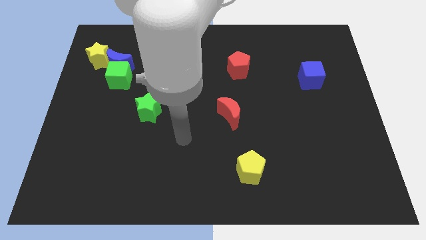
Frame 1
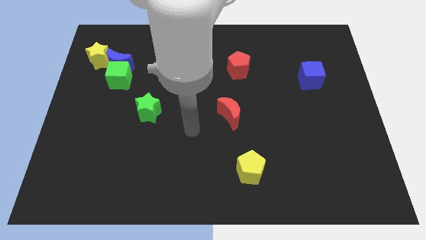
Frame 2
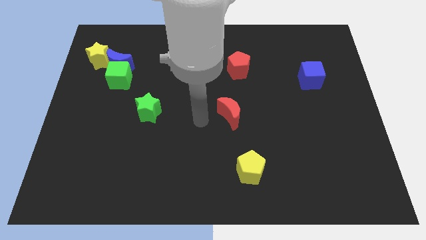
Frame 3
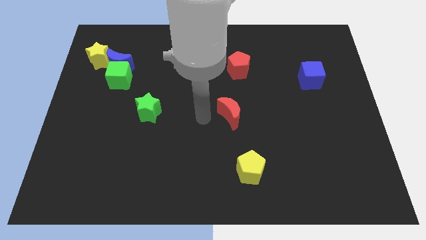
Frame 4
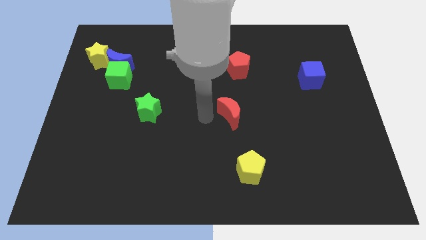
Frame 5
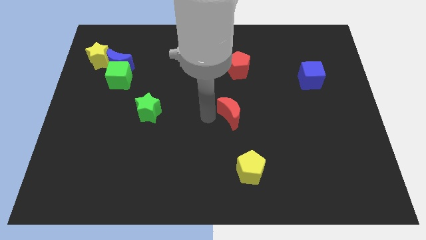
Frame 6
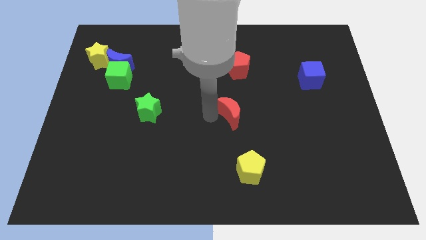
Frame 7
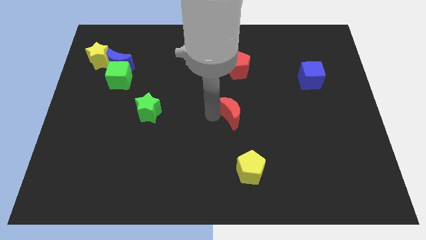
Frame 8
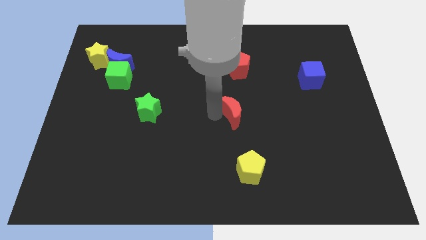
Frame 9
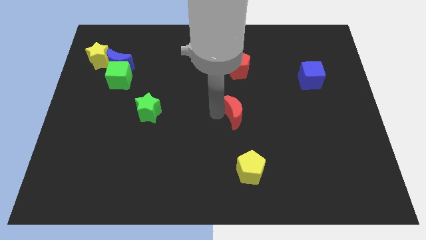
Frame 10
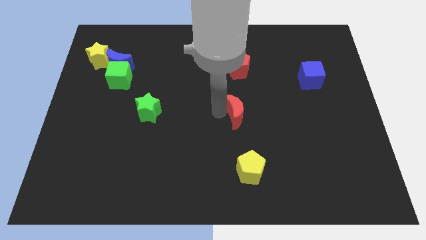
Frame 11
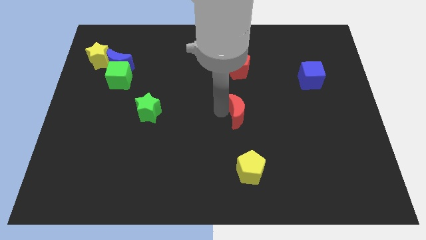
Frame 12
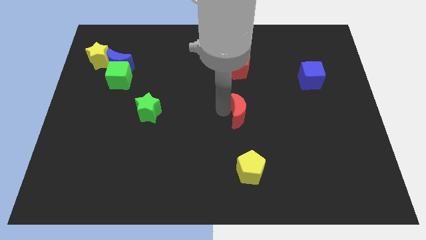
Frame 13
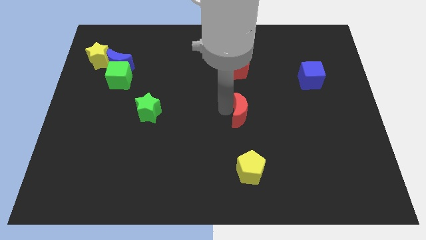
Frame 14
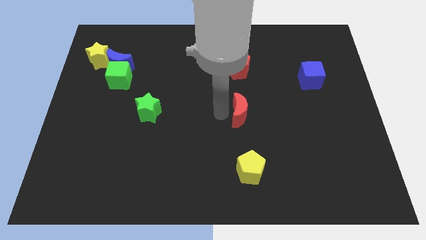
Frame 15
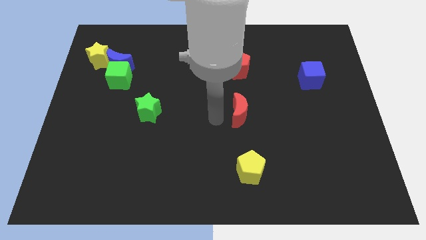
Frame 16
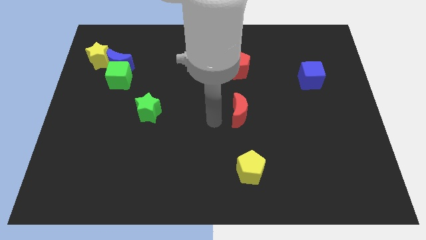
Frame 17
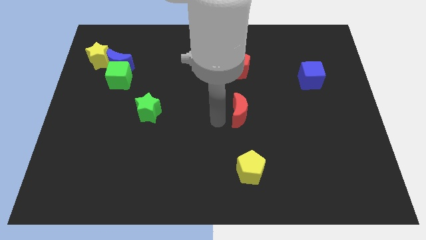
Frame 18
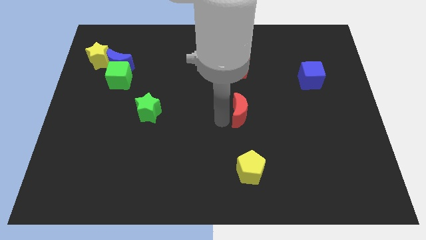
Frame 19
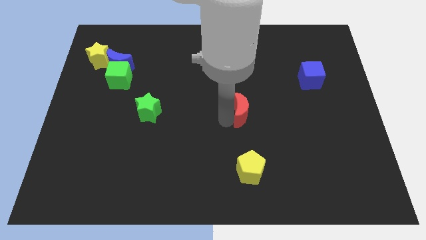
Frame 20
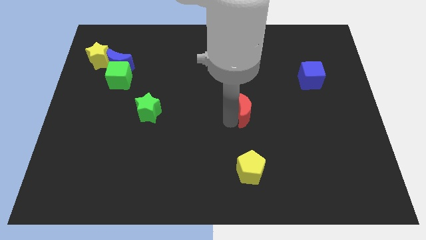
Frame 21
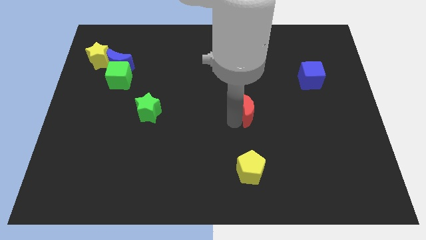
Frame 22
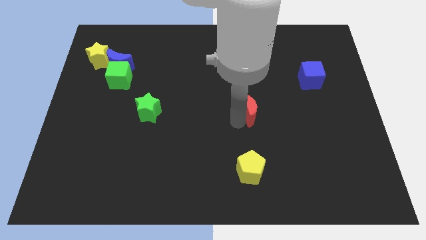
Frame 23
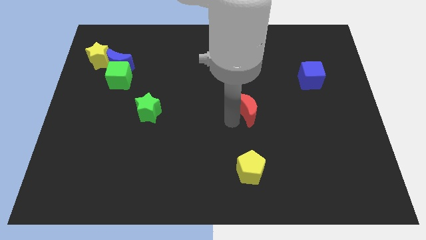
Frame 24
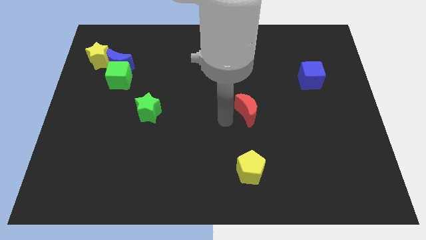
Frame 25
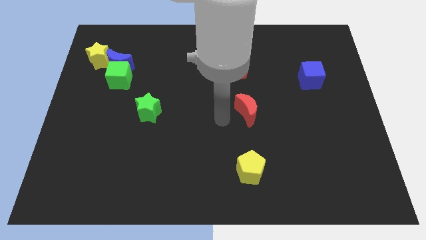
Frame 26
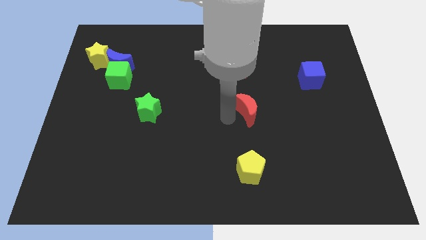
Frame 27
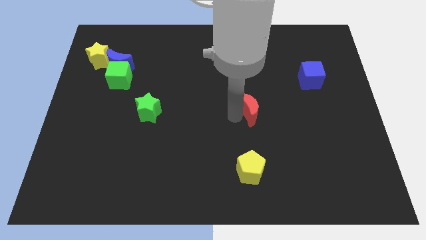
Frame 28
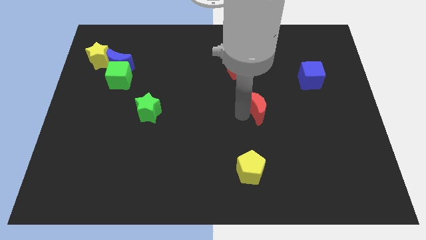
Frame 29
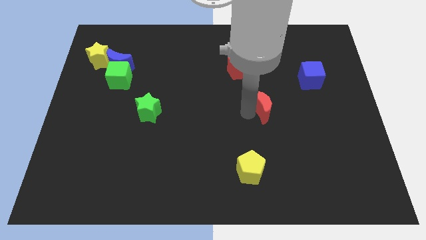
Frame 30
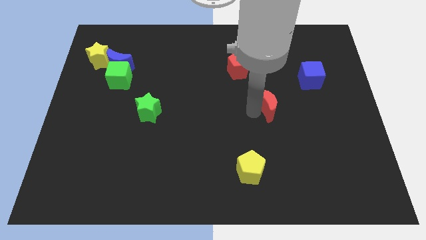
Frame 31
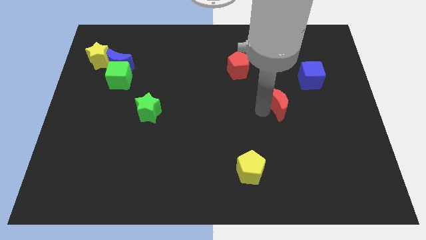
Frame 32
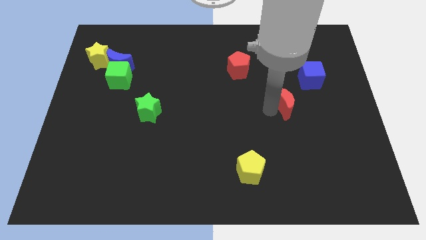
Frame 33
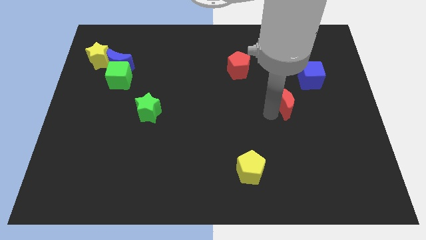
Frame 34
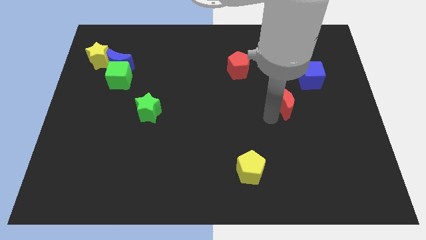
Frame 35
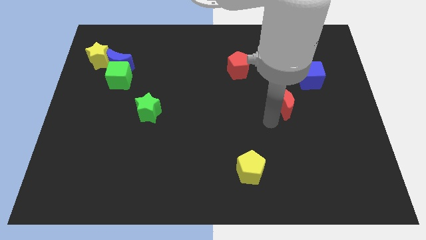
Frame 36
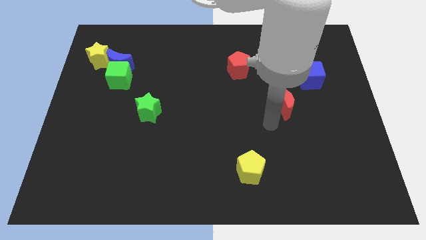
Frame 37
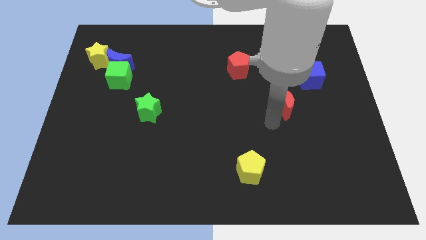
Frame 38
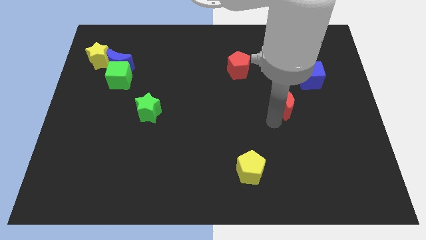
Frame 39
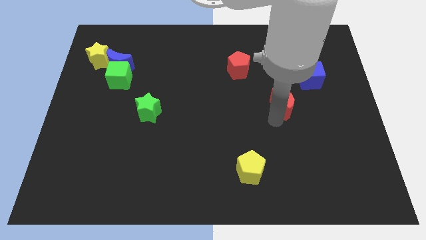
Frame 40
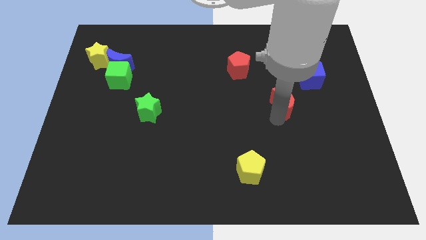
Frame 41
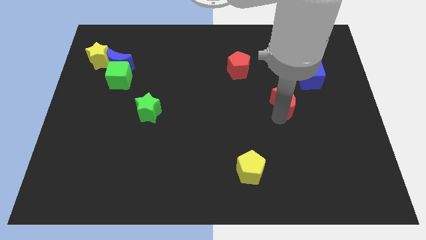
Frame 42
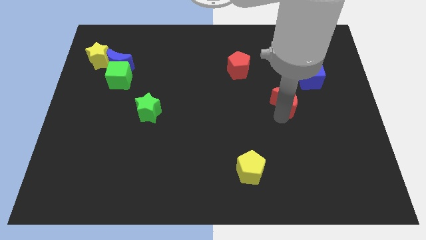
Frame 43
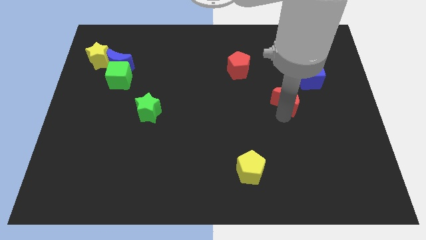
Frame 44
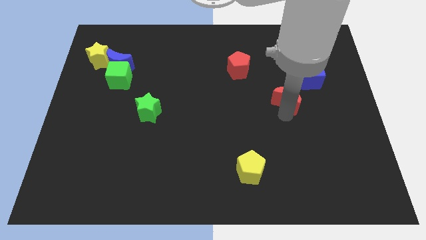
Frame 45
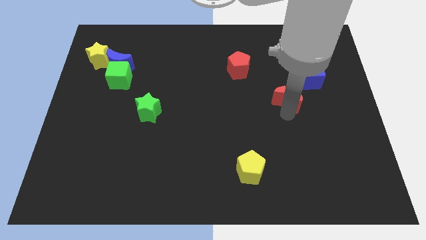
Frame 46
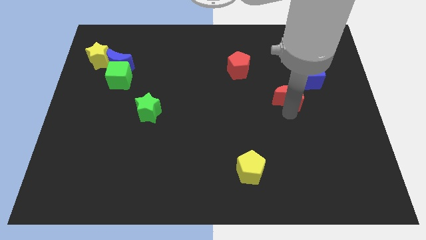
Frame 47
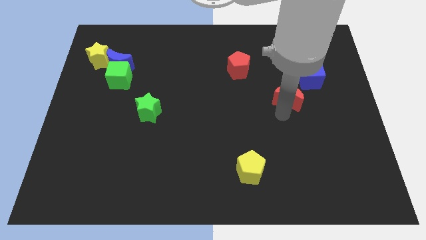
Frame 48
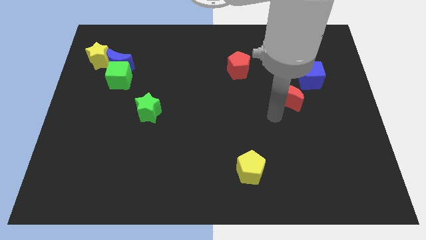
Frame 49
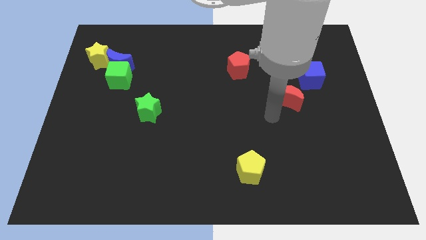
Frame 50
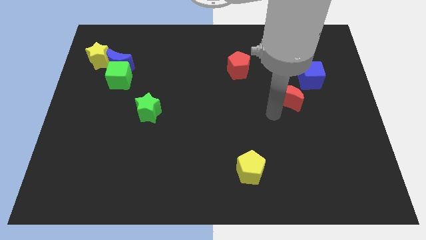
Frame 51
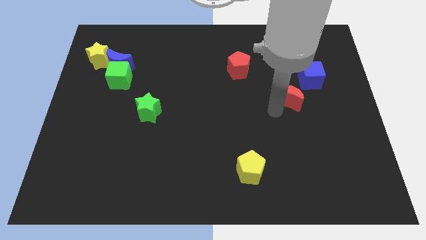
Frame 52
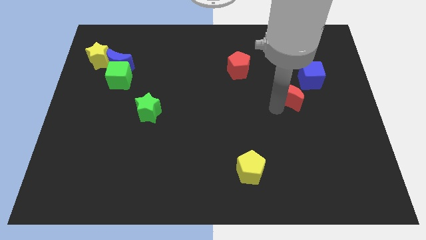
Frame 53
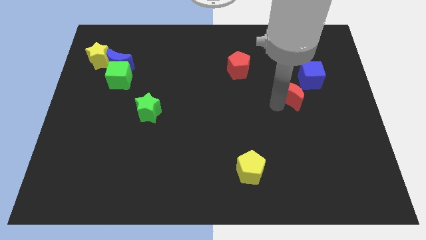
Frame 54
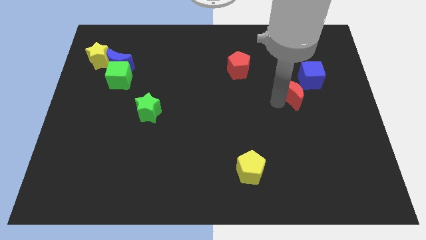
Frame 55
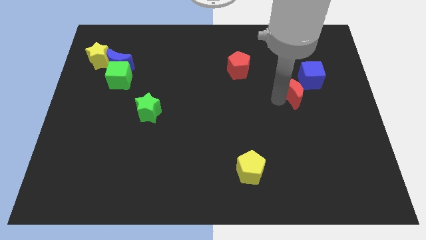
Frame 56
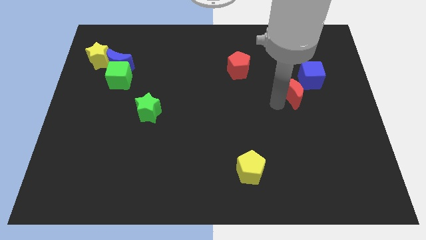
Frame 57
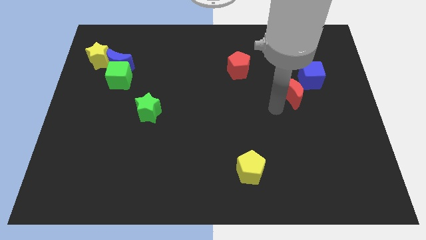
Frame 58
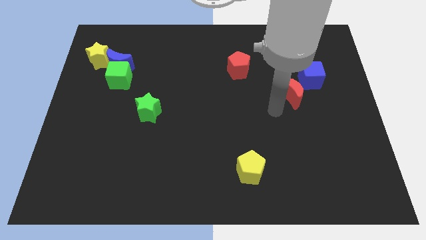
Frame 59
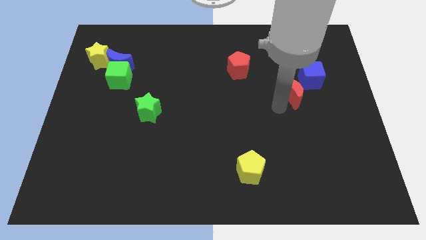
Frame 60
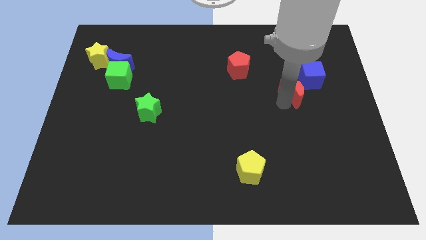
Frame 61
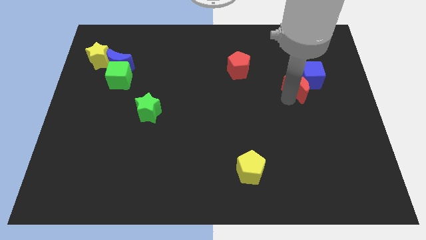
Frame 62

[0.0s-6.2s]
put the red moon towards the blue cube

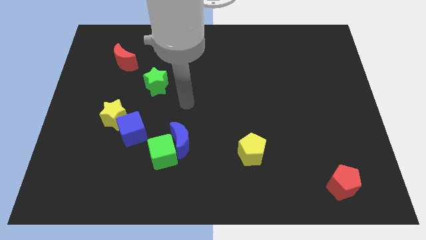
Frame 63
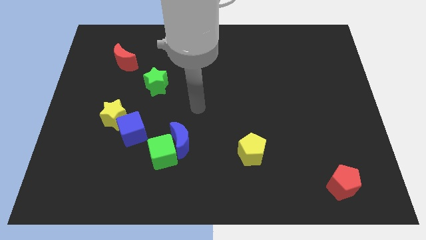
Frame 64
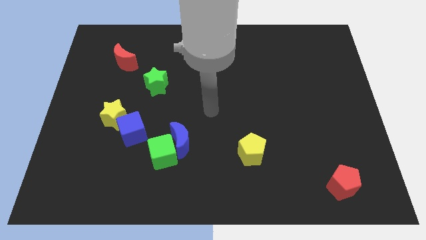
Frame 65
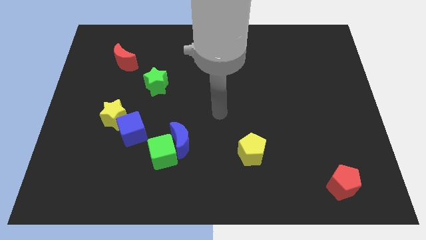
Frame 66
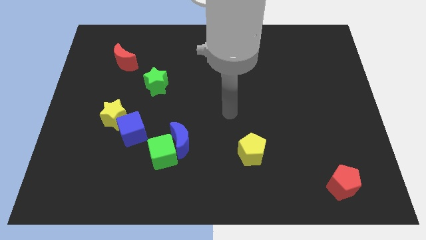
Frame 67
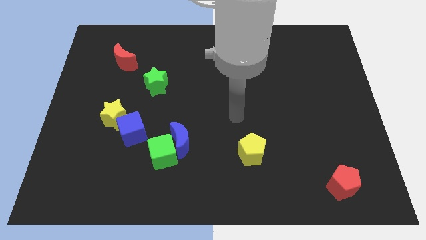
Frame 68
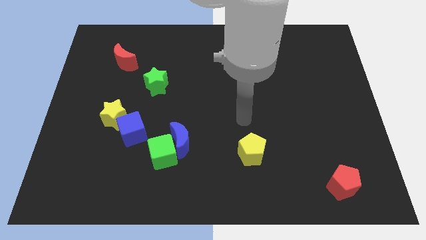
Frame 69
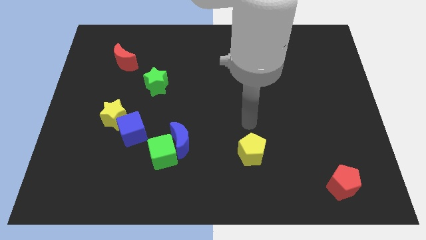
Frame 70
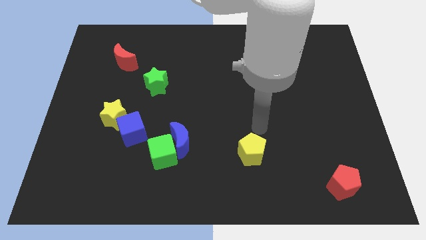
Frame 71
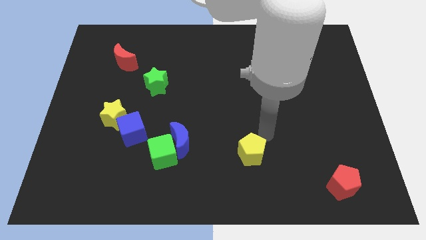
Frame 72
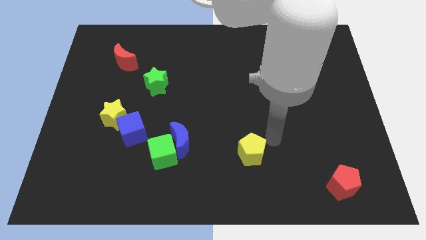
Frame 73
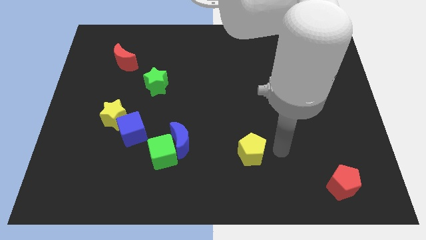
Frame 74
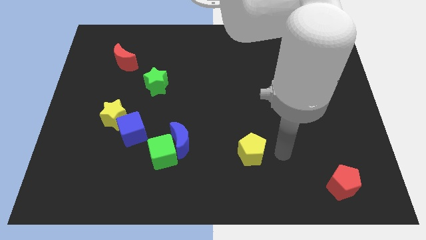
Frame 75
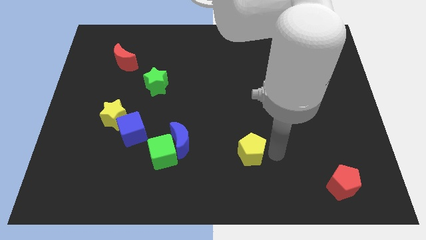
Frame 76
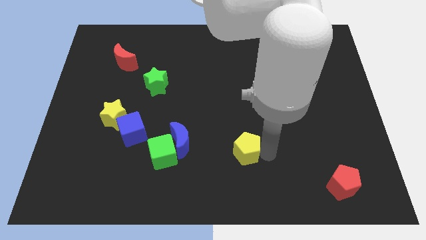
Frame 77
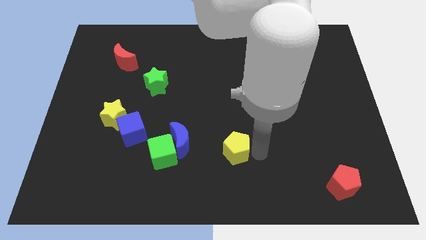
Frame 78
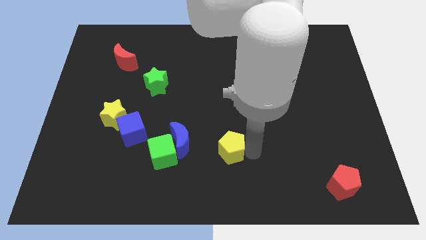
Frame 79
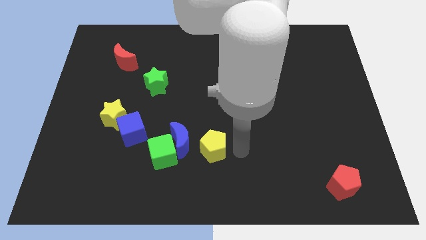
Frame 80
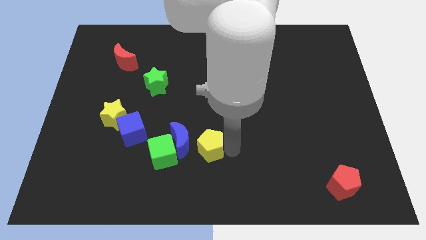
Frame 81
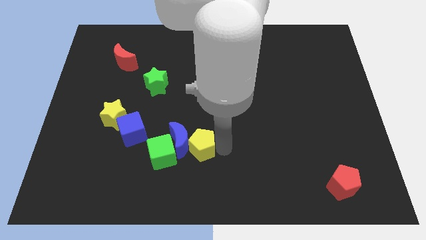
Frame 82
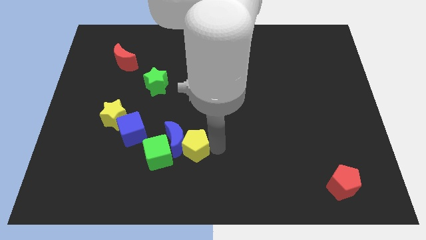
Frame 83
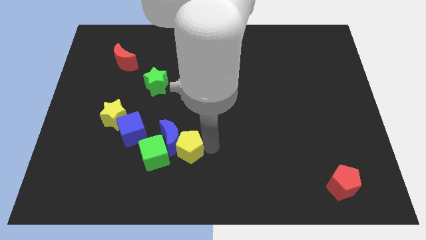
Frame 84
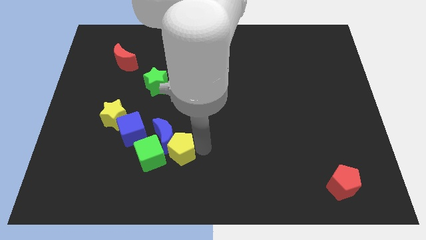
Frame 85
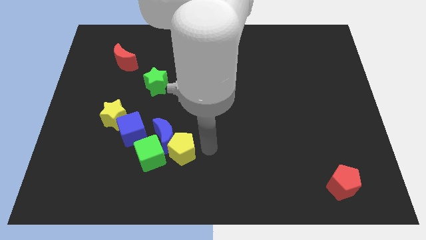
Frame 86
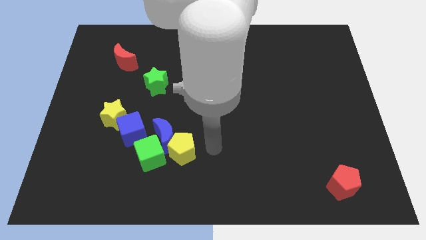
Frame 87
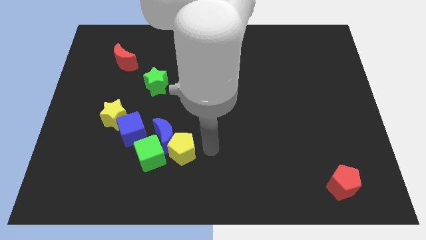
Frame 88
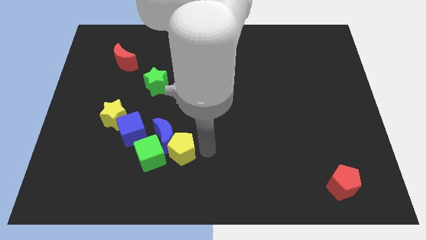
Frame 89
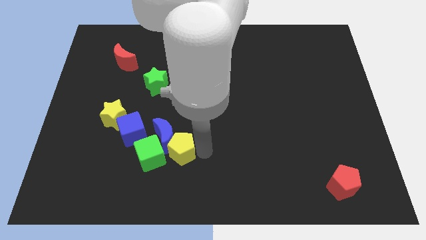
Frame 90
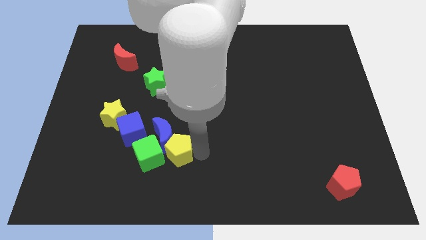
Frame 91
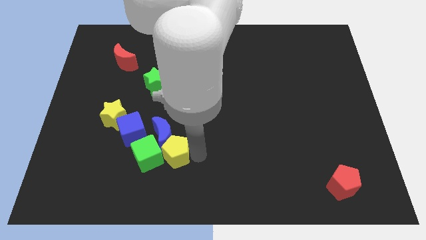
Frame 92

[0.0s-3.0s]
put the yellow pentagon close to the green cube
